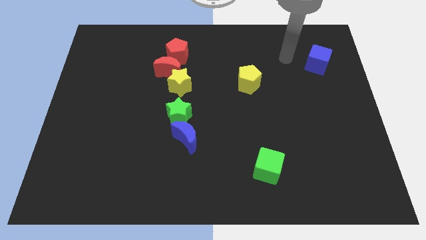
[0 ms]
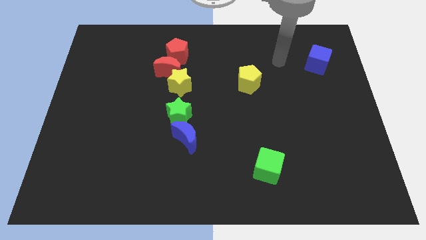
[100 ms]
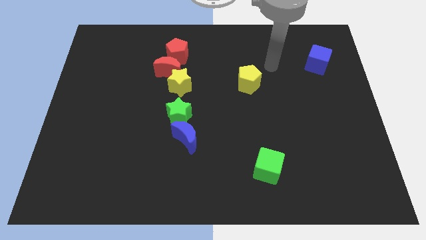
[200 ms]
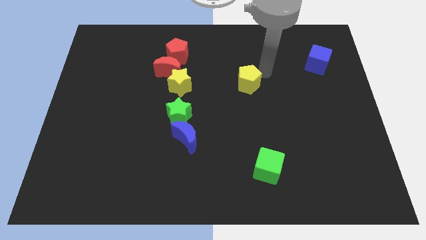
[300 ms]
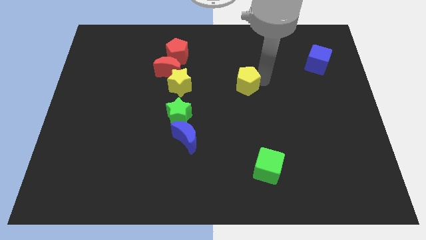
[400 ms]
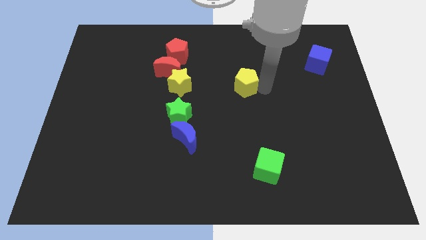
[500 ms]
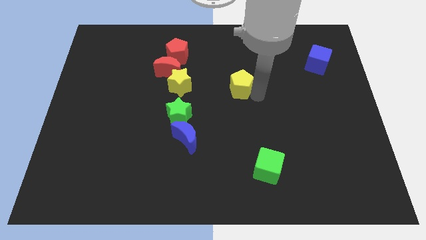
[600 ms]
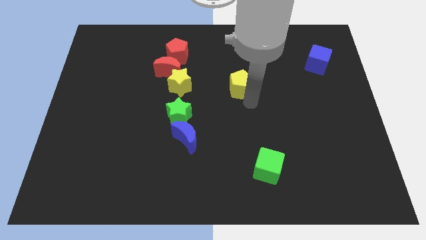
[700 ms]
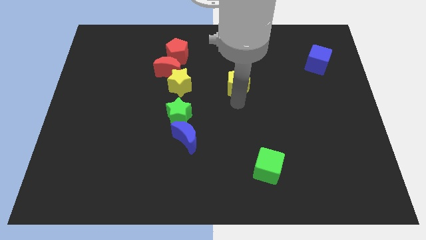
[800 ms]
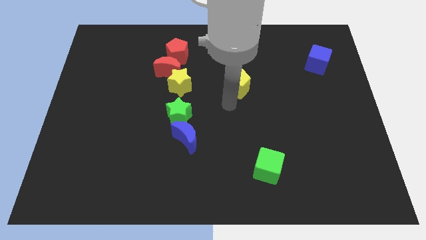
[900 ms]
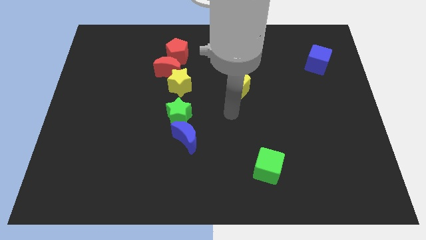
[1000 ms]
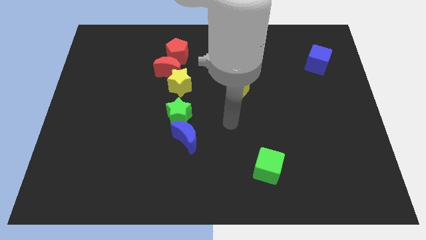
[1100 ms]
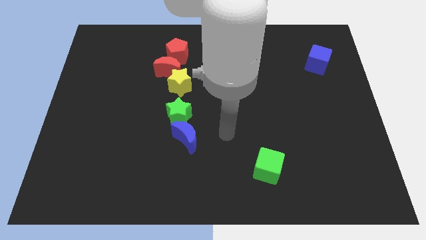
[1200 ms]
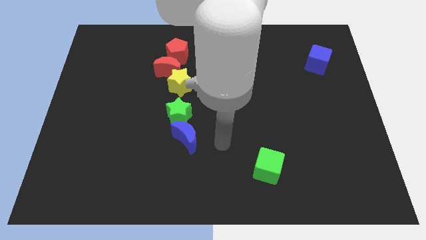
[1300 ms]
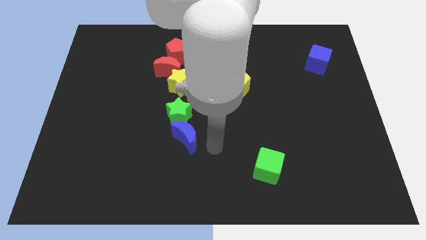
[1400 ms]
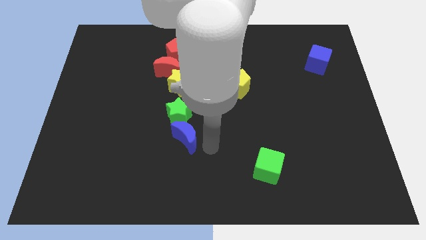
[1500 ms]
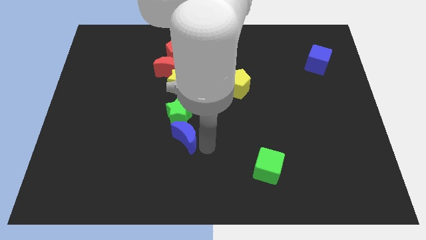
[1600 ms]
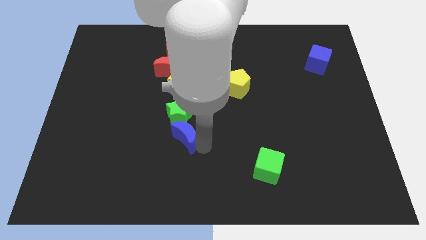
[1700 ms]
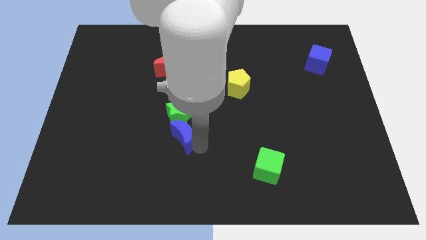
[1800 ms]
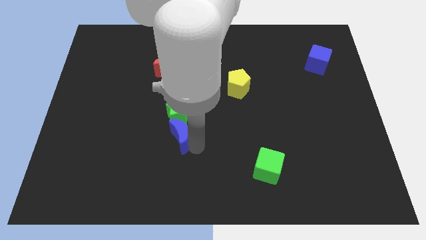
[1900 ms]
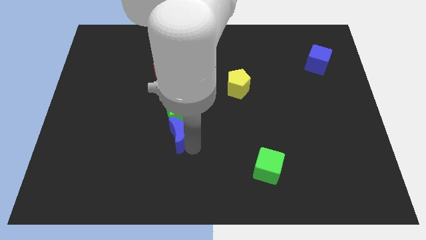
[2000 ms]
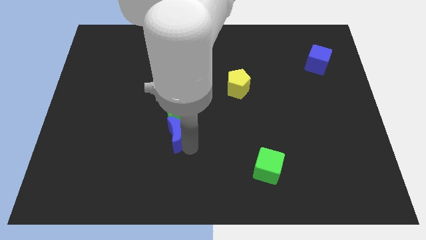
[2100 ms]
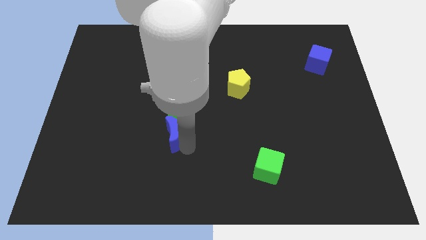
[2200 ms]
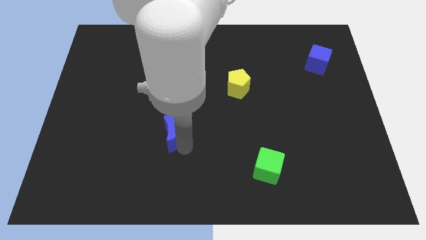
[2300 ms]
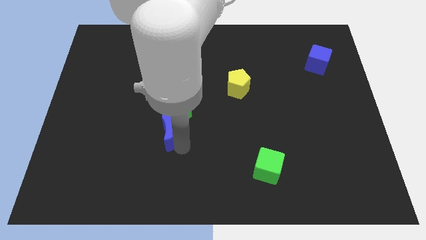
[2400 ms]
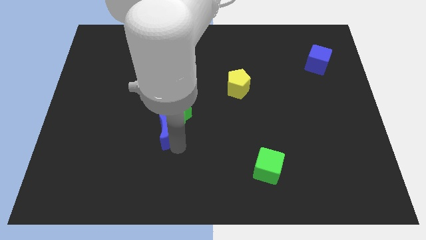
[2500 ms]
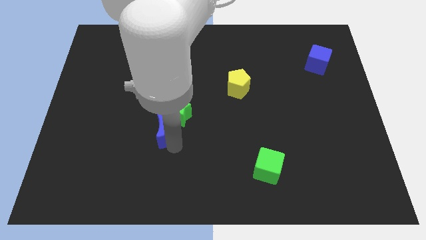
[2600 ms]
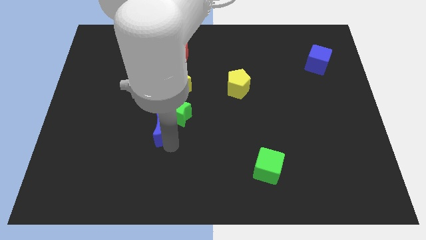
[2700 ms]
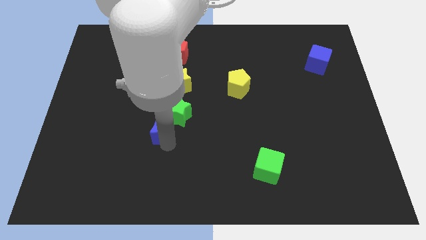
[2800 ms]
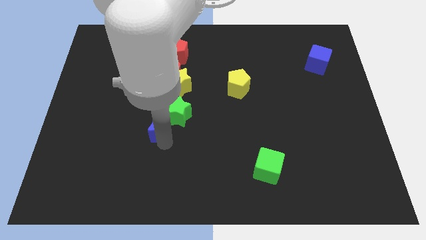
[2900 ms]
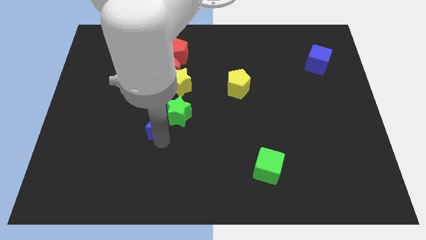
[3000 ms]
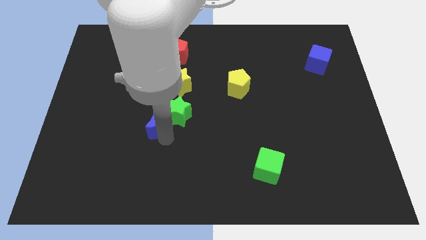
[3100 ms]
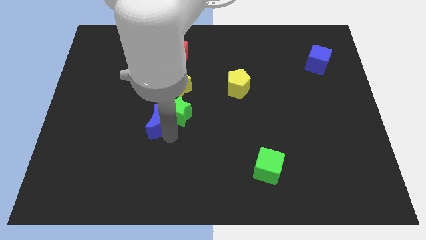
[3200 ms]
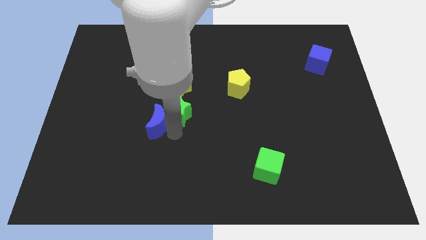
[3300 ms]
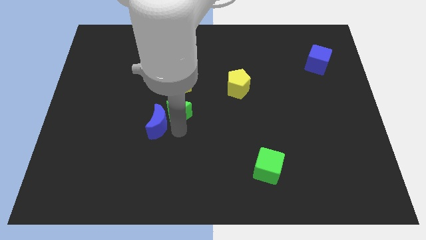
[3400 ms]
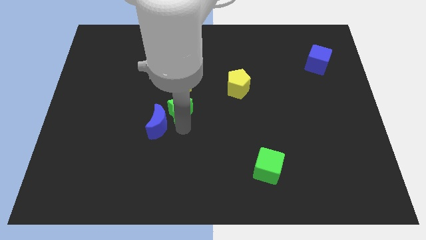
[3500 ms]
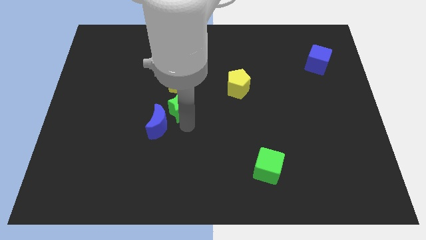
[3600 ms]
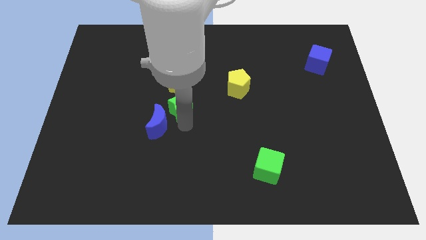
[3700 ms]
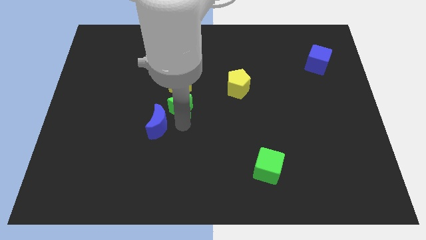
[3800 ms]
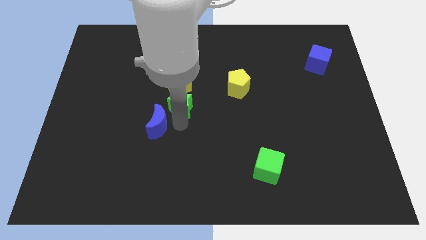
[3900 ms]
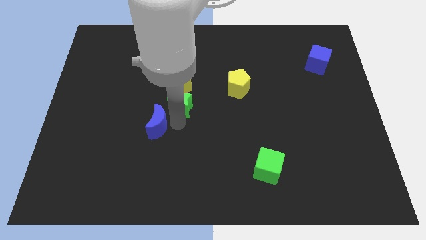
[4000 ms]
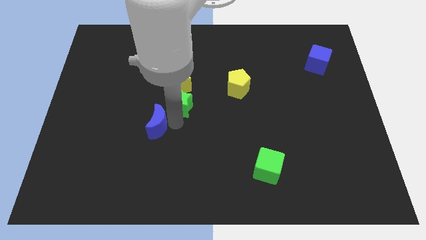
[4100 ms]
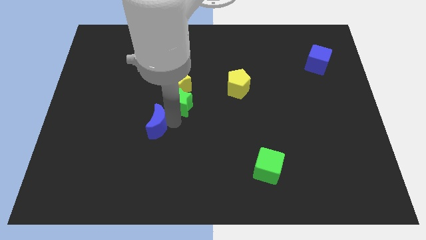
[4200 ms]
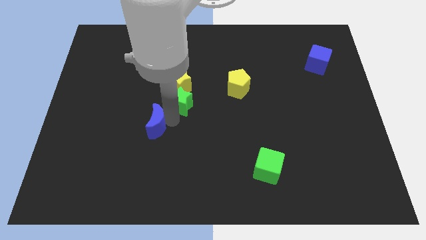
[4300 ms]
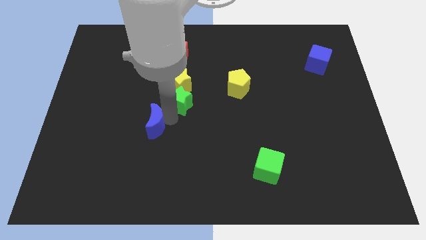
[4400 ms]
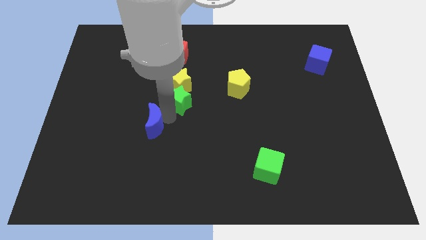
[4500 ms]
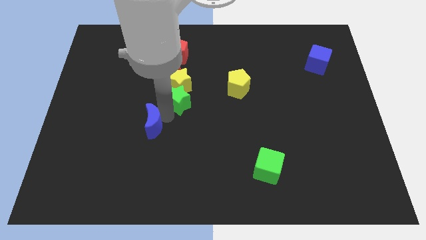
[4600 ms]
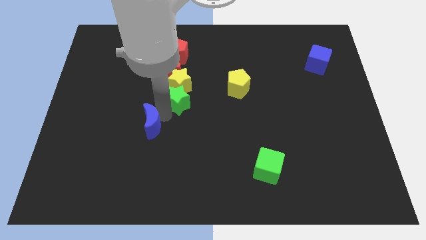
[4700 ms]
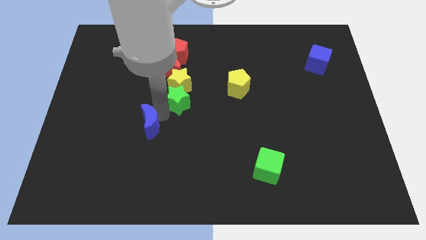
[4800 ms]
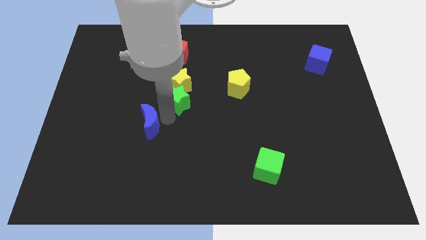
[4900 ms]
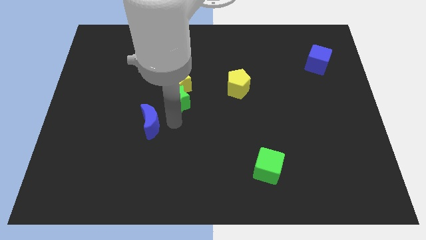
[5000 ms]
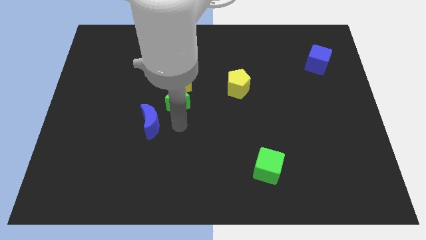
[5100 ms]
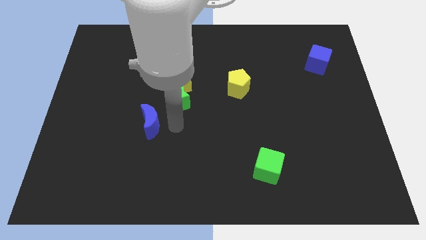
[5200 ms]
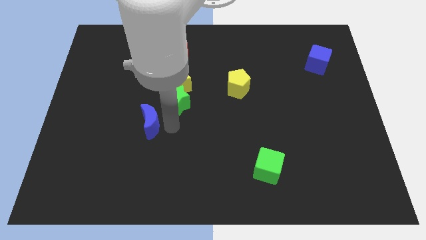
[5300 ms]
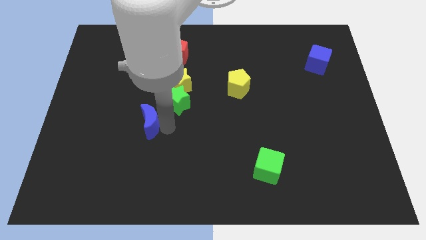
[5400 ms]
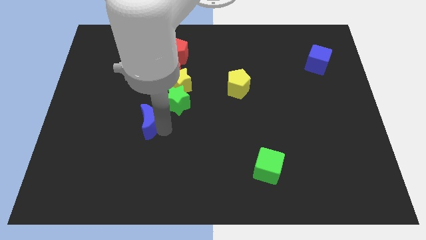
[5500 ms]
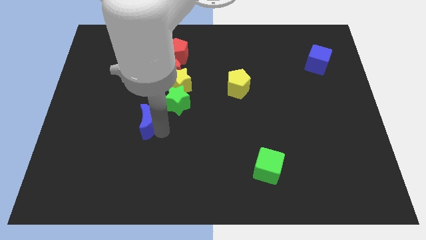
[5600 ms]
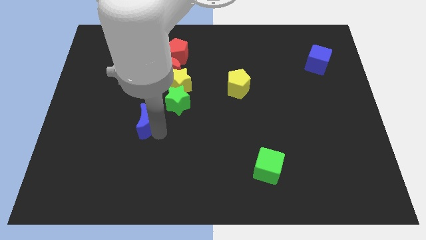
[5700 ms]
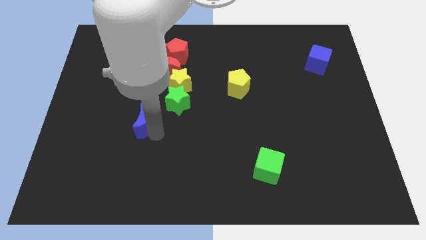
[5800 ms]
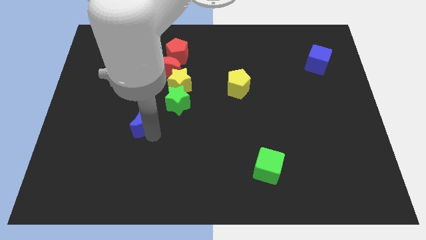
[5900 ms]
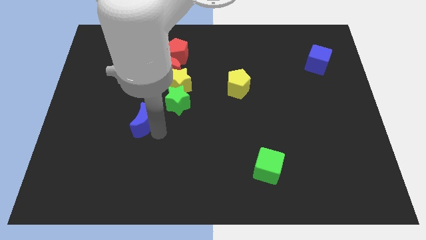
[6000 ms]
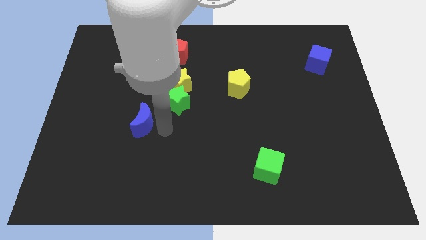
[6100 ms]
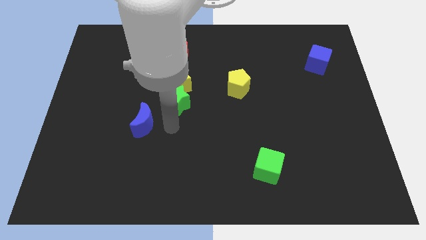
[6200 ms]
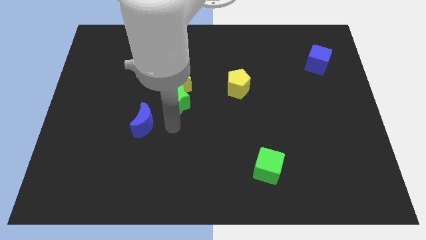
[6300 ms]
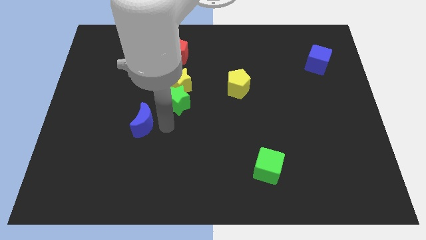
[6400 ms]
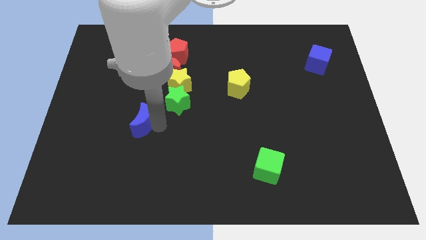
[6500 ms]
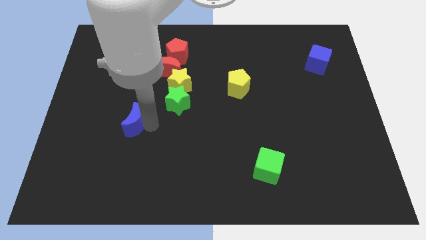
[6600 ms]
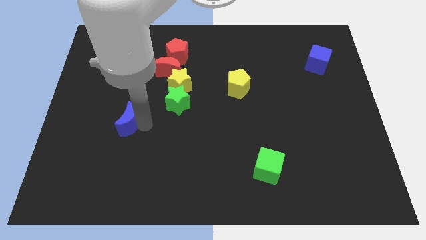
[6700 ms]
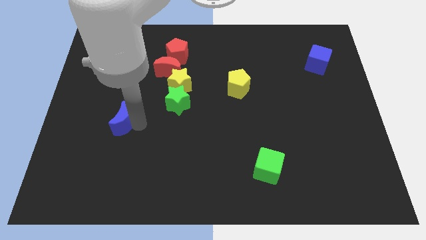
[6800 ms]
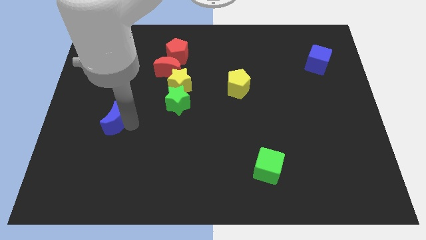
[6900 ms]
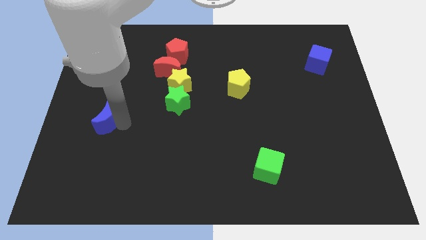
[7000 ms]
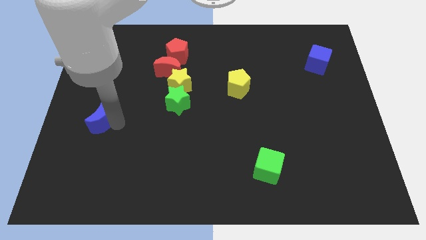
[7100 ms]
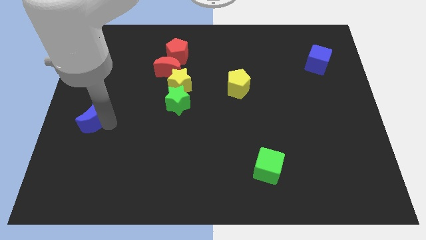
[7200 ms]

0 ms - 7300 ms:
slide the blue moon to the left side
